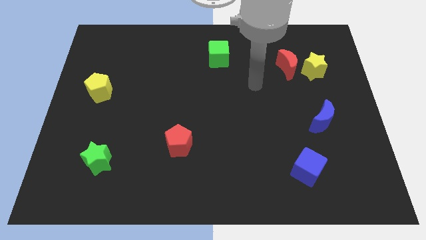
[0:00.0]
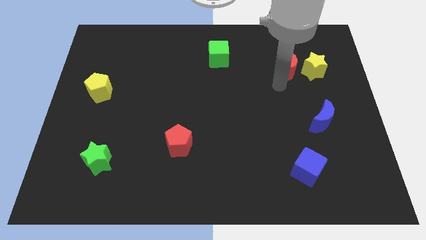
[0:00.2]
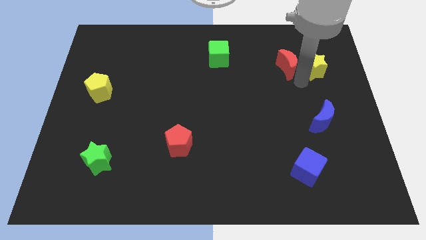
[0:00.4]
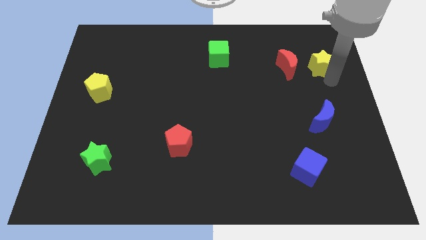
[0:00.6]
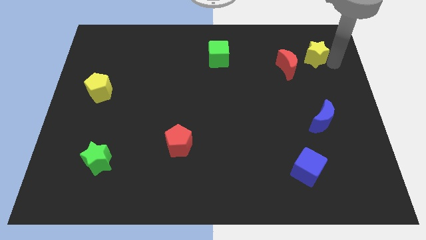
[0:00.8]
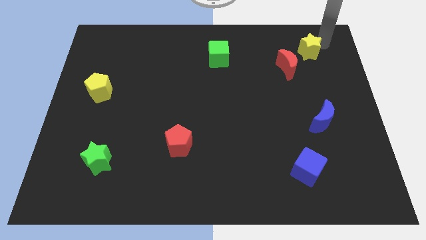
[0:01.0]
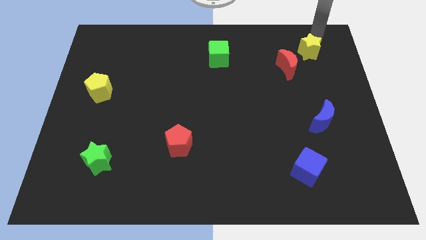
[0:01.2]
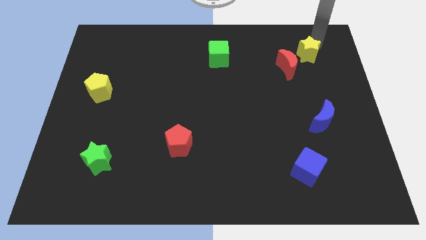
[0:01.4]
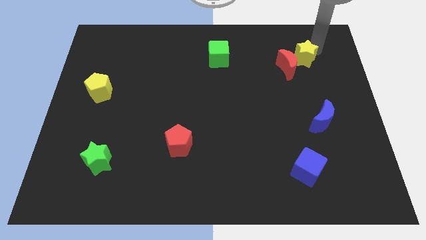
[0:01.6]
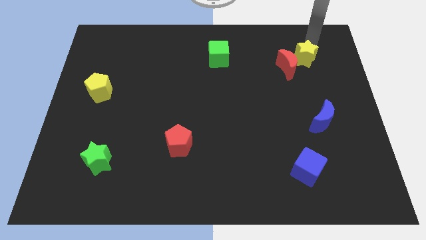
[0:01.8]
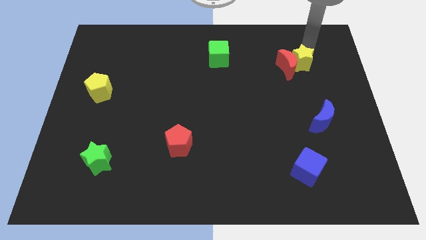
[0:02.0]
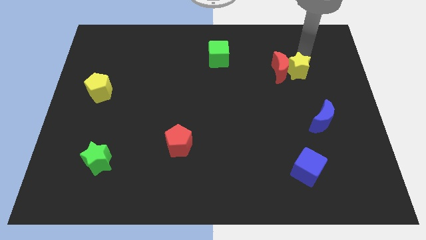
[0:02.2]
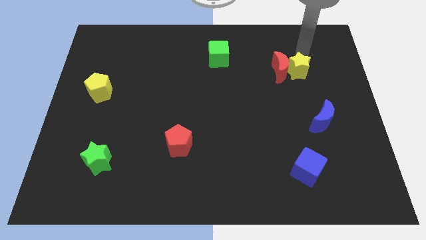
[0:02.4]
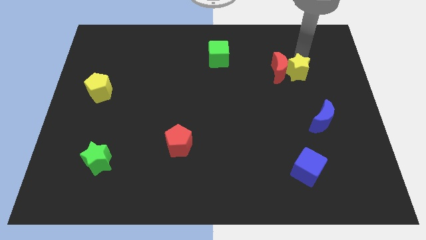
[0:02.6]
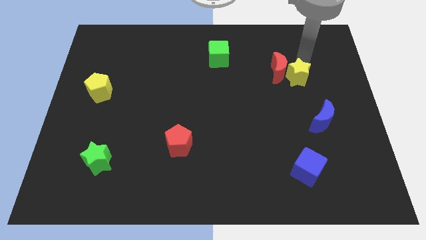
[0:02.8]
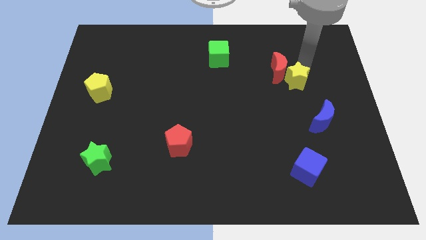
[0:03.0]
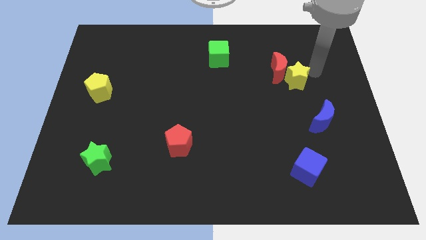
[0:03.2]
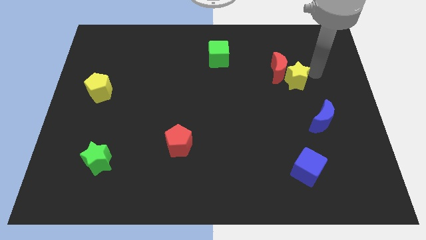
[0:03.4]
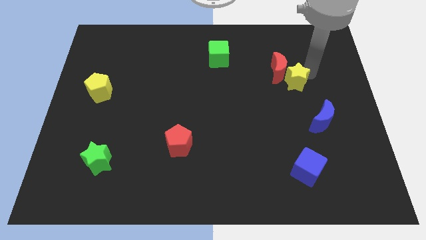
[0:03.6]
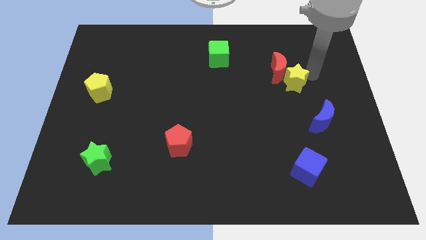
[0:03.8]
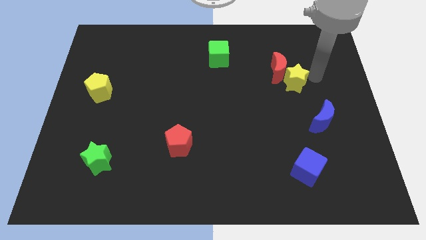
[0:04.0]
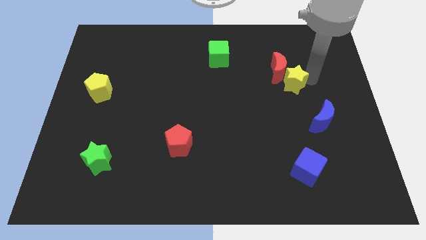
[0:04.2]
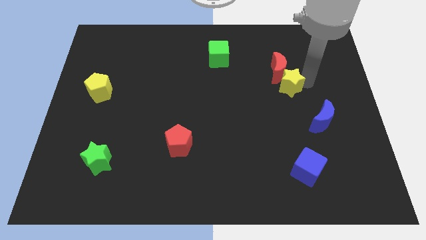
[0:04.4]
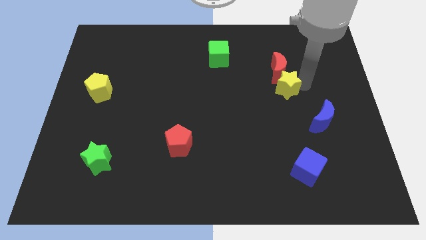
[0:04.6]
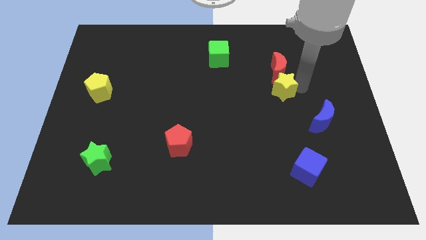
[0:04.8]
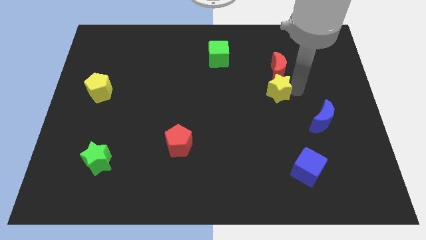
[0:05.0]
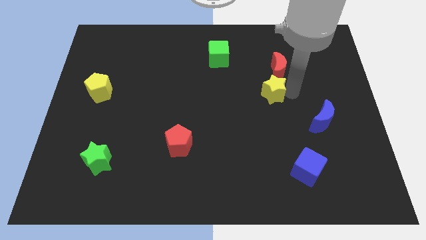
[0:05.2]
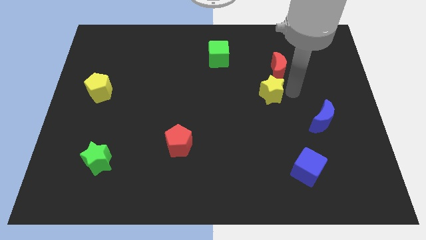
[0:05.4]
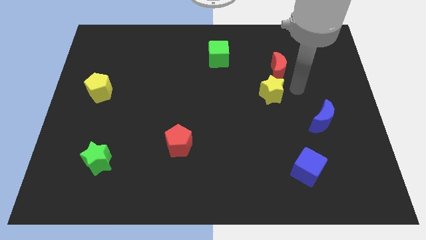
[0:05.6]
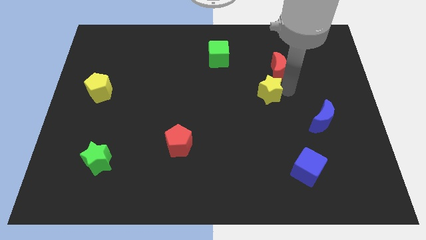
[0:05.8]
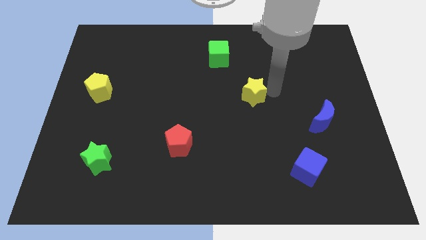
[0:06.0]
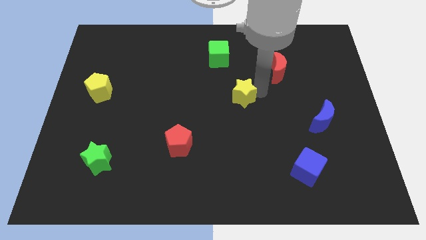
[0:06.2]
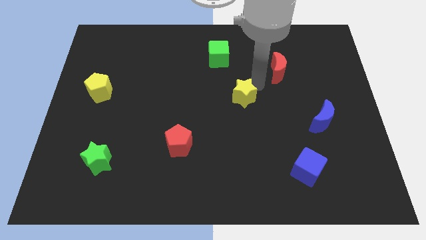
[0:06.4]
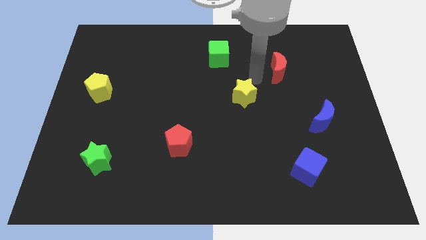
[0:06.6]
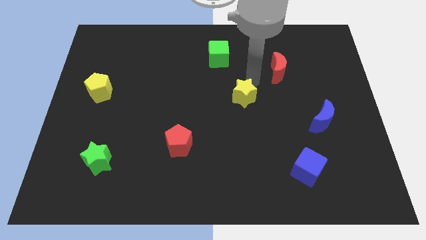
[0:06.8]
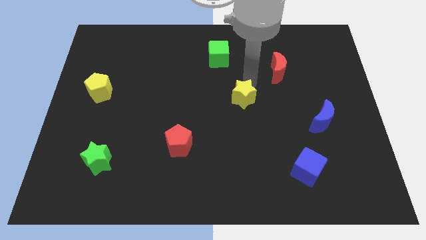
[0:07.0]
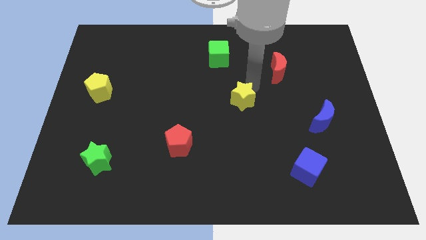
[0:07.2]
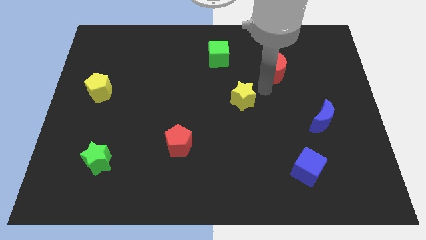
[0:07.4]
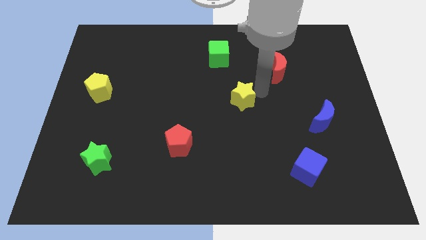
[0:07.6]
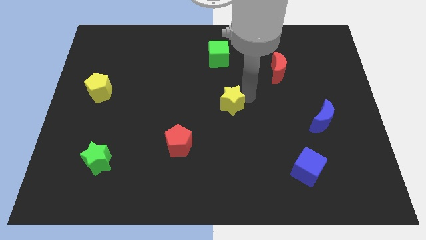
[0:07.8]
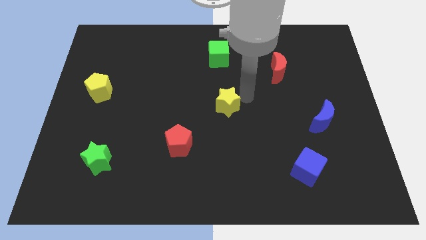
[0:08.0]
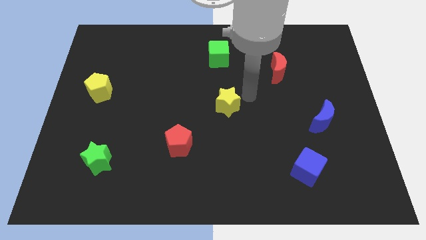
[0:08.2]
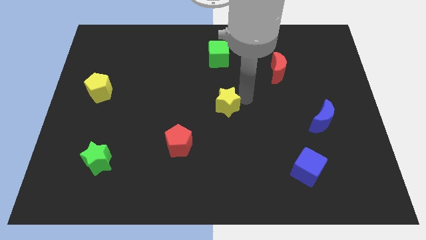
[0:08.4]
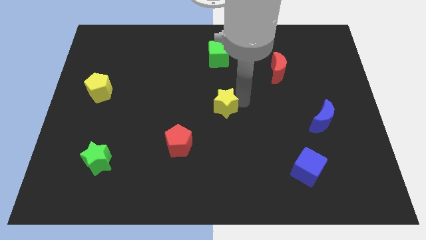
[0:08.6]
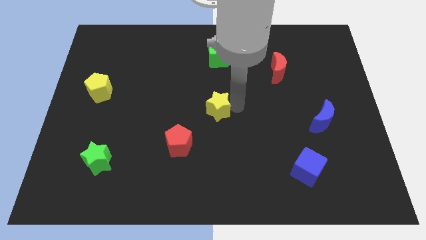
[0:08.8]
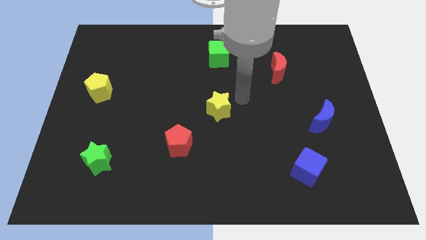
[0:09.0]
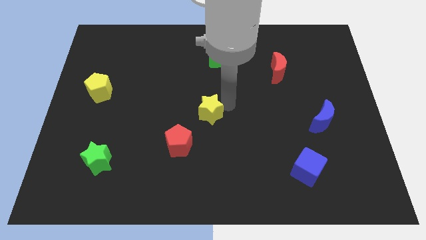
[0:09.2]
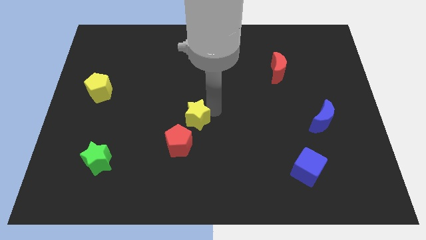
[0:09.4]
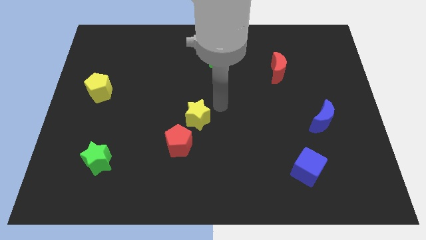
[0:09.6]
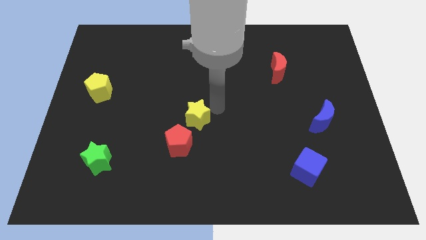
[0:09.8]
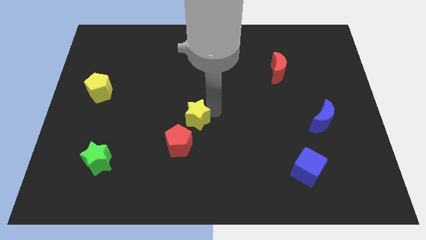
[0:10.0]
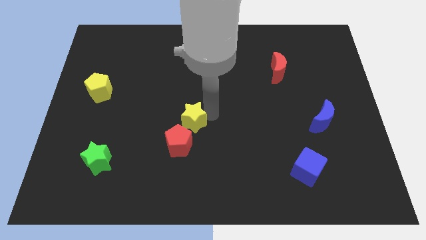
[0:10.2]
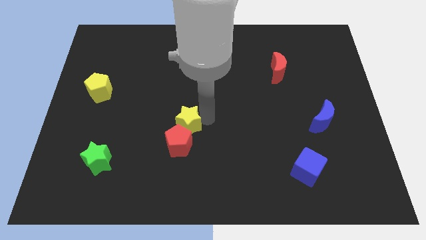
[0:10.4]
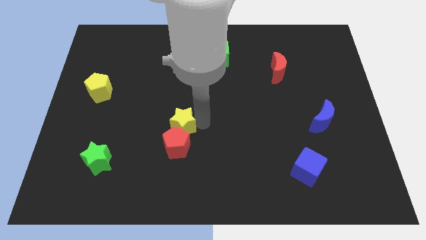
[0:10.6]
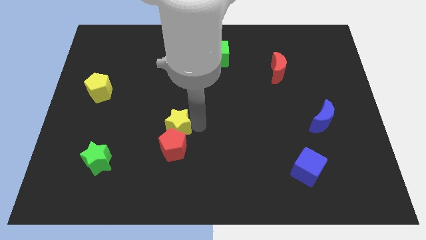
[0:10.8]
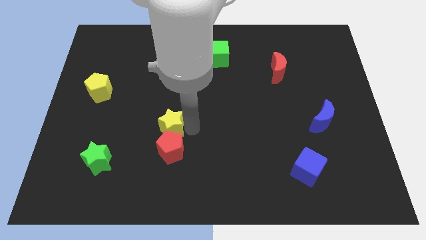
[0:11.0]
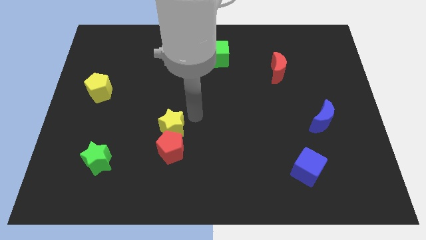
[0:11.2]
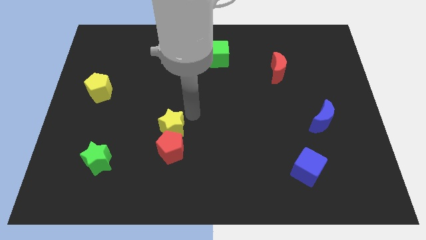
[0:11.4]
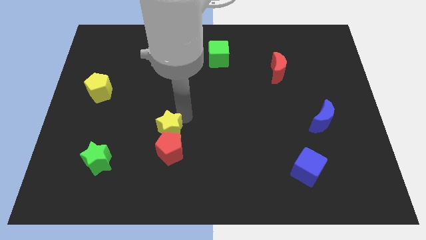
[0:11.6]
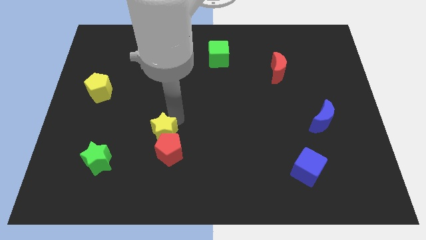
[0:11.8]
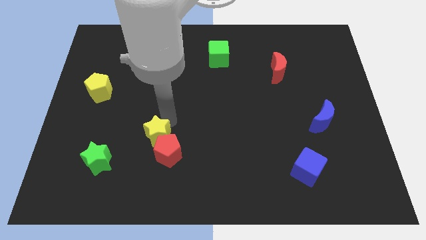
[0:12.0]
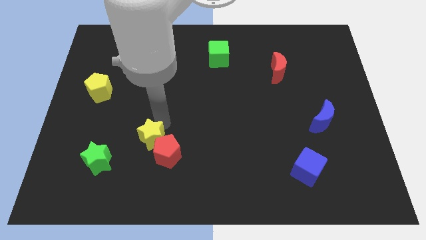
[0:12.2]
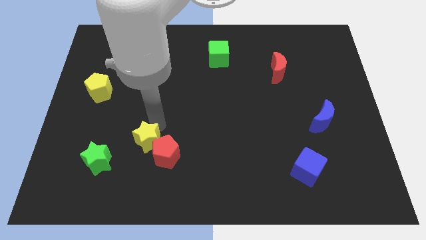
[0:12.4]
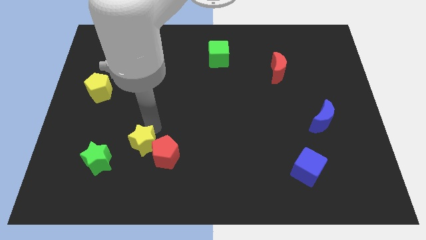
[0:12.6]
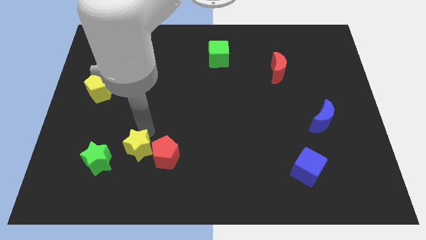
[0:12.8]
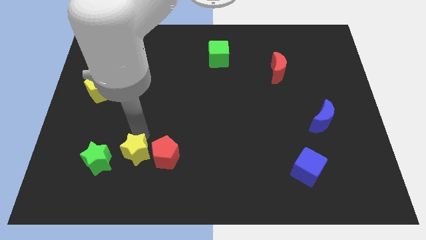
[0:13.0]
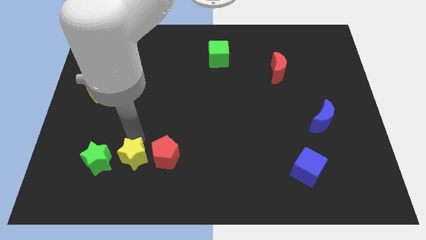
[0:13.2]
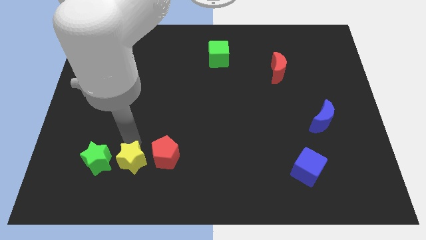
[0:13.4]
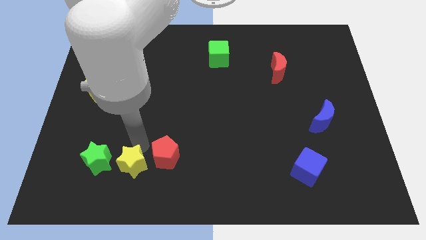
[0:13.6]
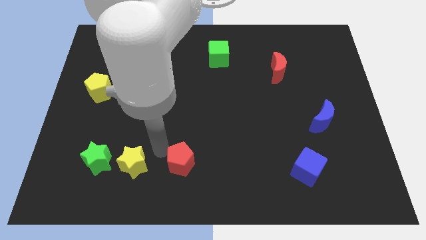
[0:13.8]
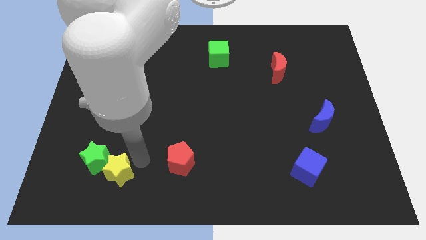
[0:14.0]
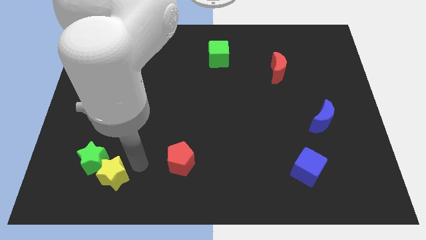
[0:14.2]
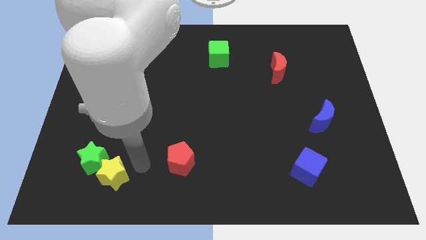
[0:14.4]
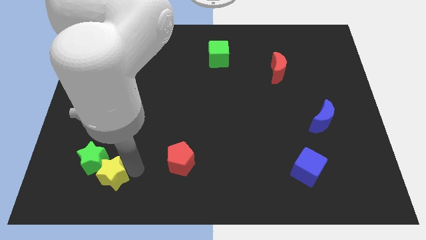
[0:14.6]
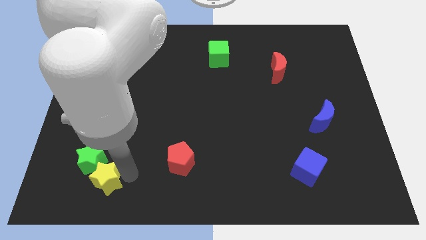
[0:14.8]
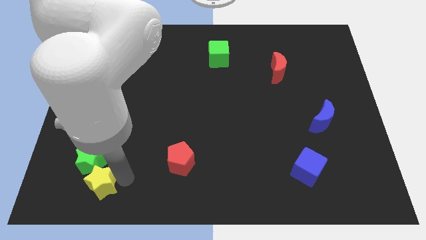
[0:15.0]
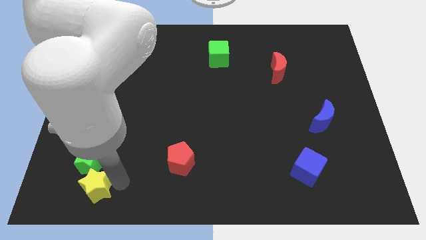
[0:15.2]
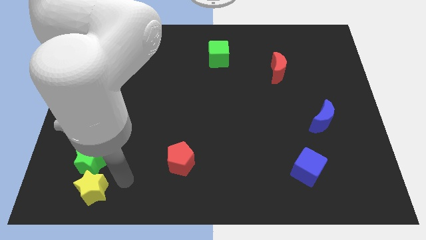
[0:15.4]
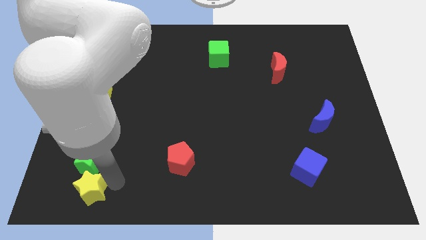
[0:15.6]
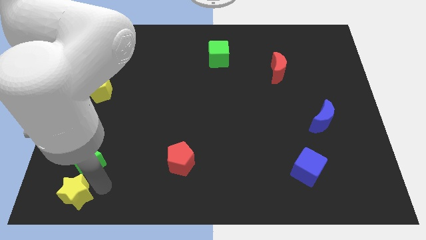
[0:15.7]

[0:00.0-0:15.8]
push the yellow star to the bottom left corner
